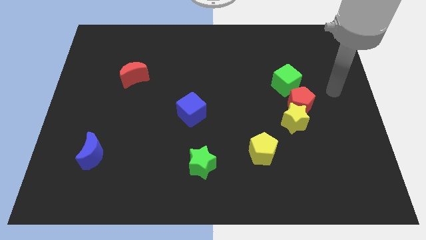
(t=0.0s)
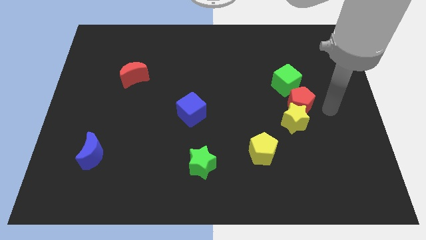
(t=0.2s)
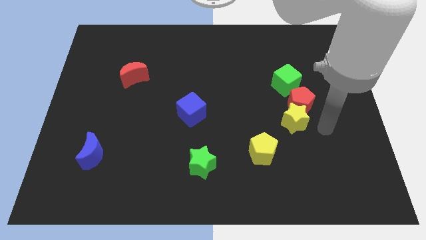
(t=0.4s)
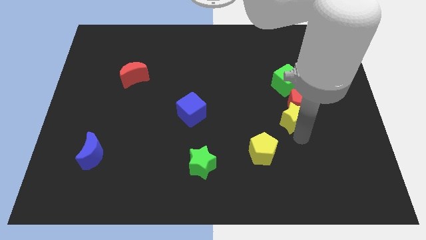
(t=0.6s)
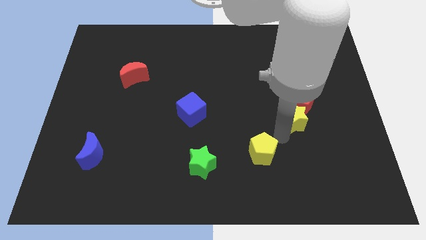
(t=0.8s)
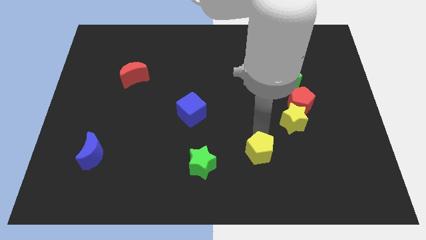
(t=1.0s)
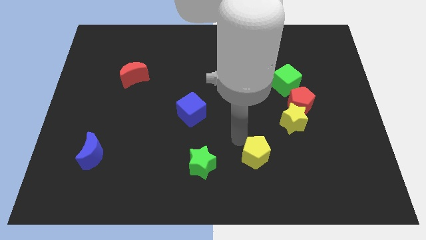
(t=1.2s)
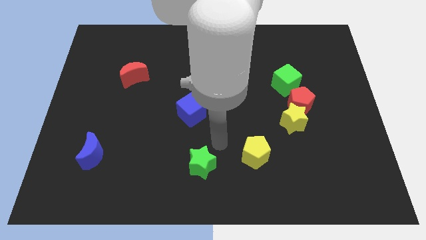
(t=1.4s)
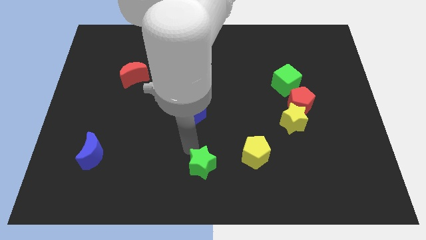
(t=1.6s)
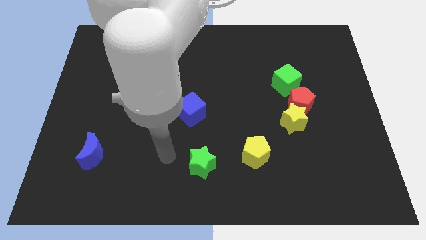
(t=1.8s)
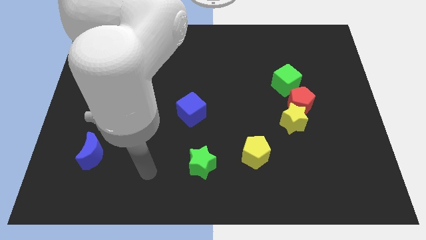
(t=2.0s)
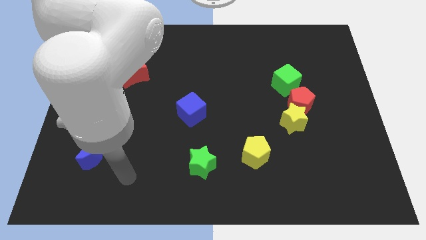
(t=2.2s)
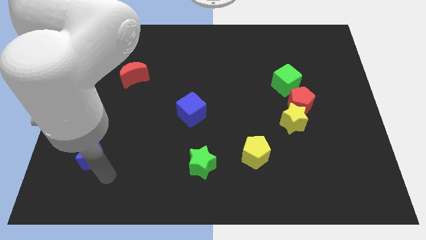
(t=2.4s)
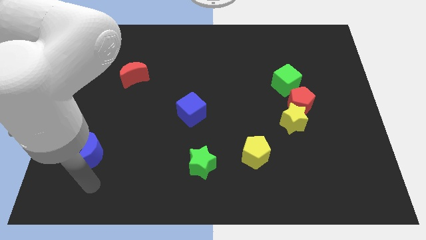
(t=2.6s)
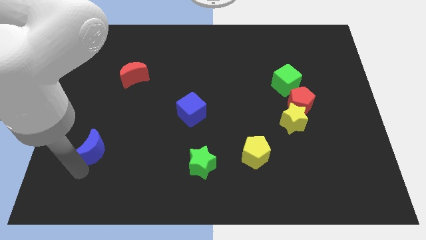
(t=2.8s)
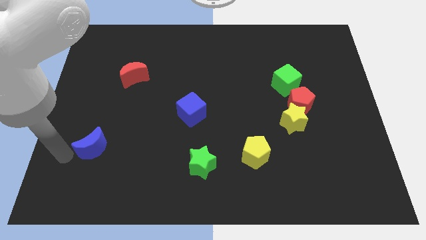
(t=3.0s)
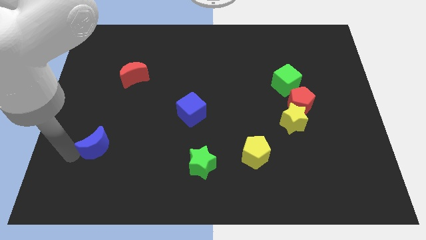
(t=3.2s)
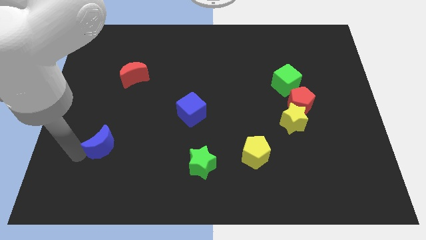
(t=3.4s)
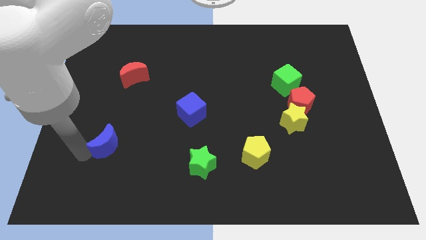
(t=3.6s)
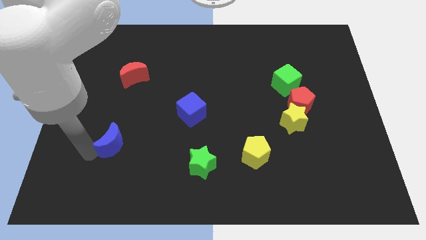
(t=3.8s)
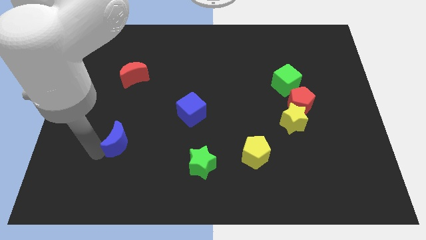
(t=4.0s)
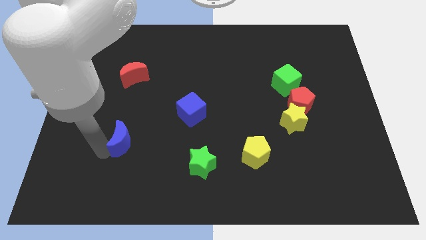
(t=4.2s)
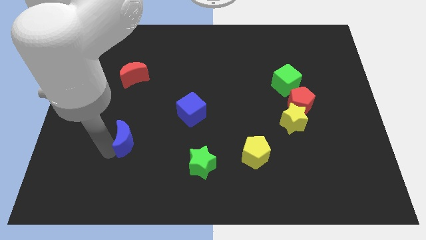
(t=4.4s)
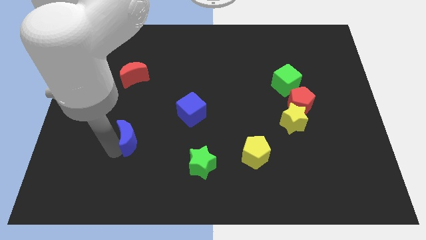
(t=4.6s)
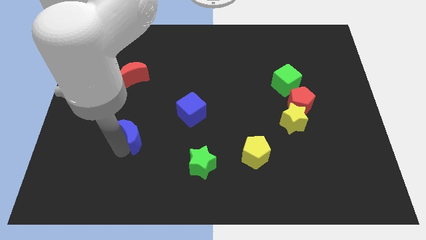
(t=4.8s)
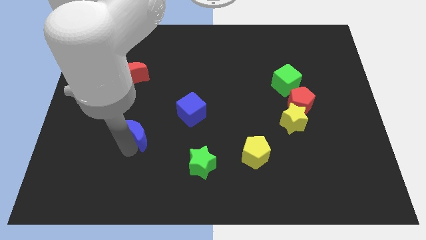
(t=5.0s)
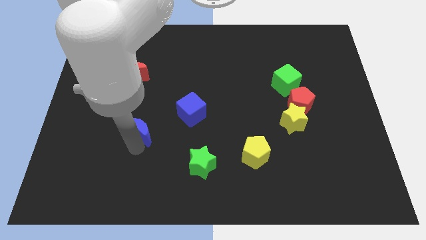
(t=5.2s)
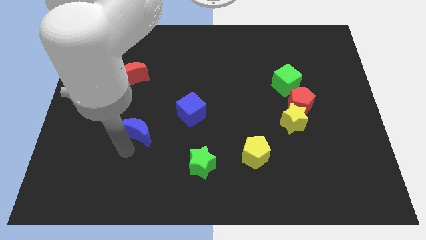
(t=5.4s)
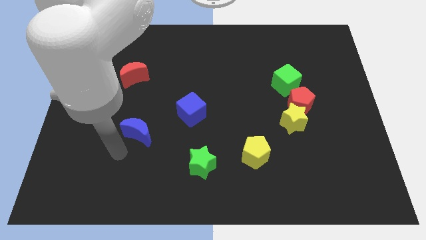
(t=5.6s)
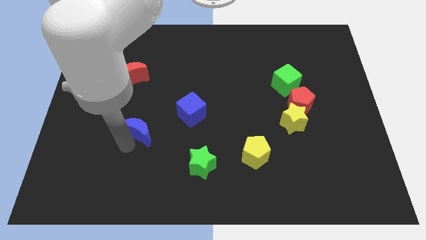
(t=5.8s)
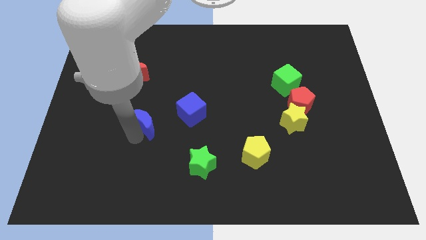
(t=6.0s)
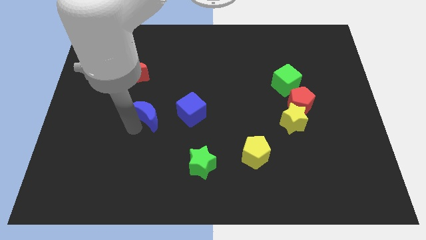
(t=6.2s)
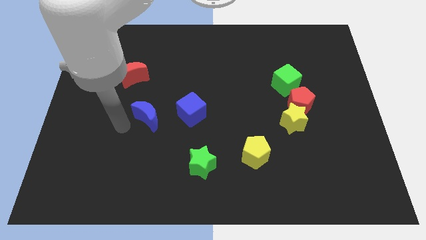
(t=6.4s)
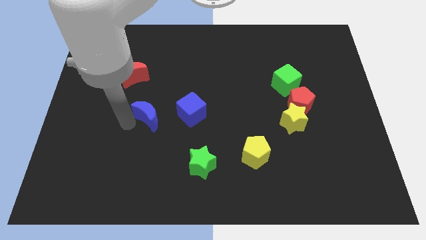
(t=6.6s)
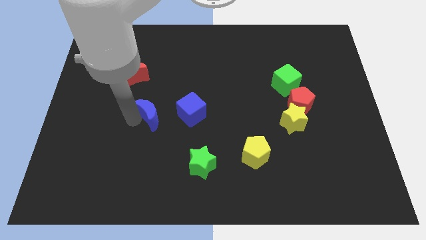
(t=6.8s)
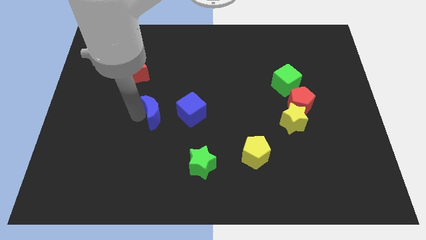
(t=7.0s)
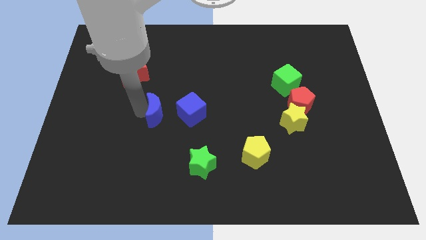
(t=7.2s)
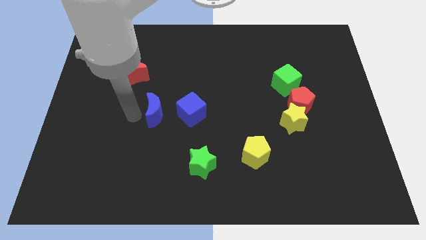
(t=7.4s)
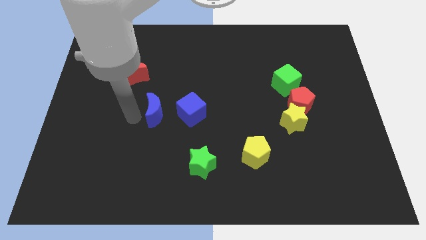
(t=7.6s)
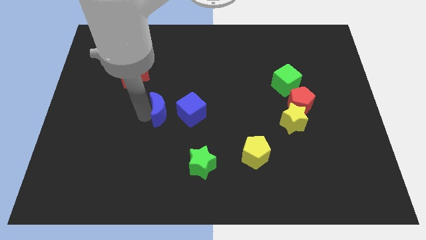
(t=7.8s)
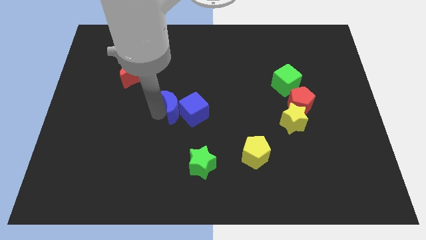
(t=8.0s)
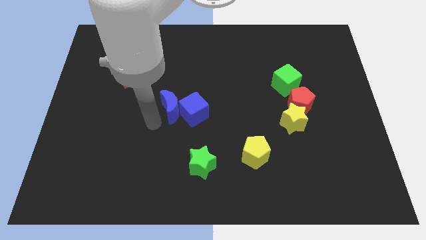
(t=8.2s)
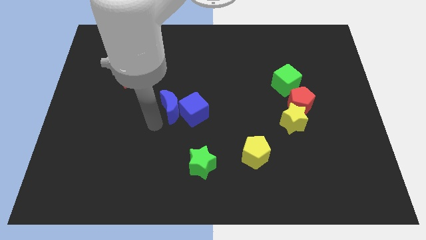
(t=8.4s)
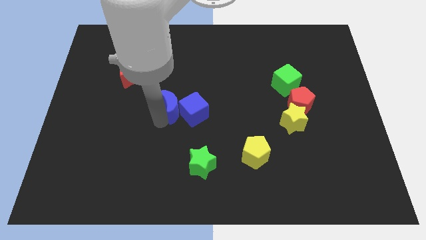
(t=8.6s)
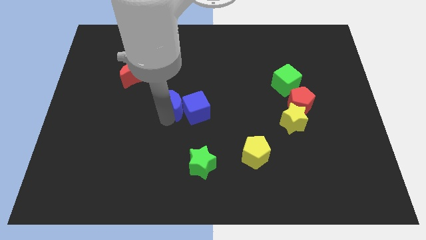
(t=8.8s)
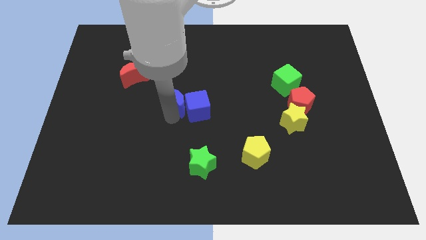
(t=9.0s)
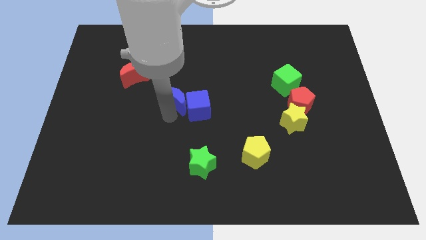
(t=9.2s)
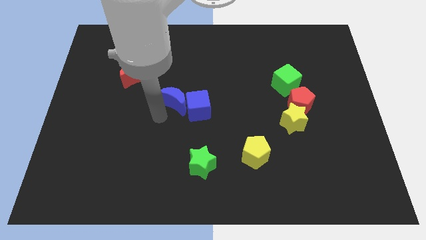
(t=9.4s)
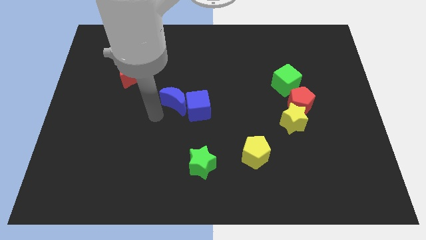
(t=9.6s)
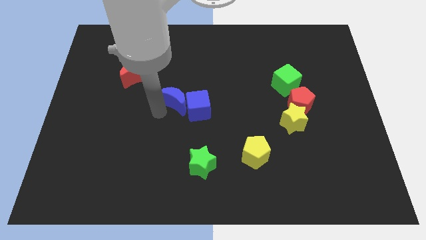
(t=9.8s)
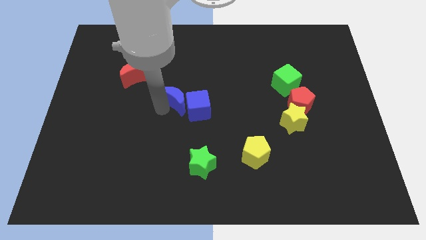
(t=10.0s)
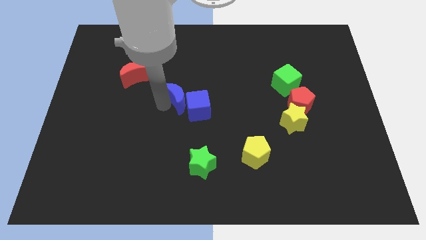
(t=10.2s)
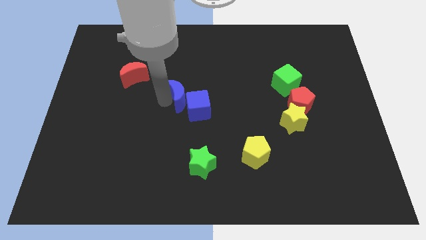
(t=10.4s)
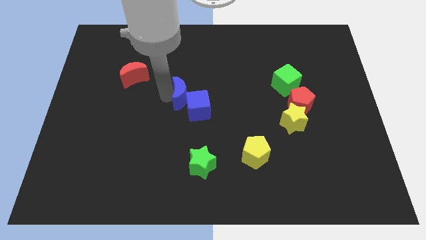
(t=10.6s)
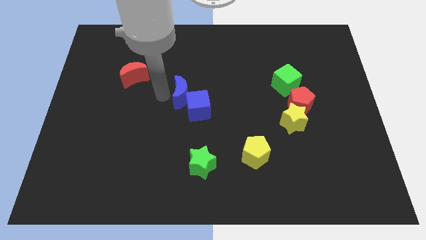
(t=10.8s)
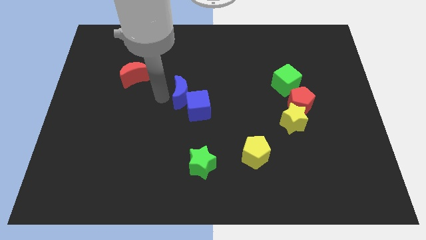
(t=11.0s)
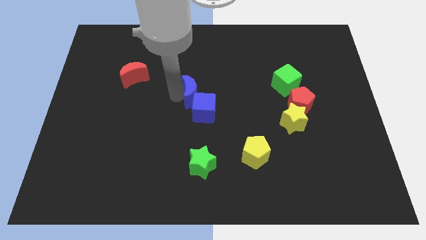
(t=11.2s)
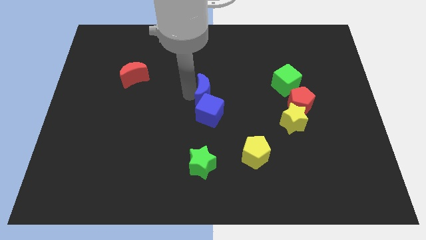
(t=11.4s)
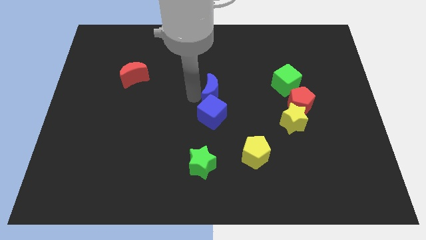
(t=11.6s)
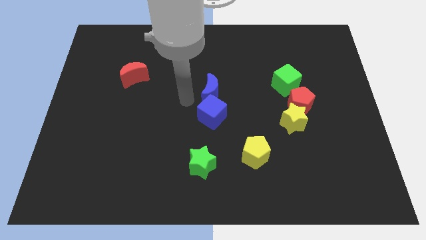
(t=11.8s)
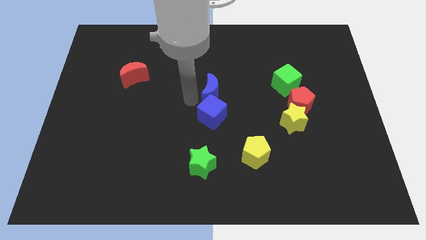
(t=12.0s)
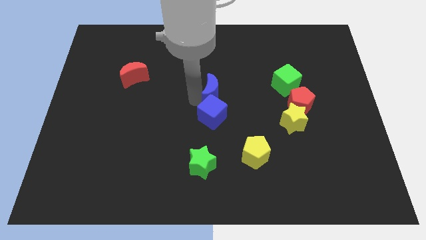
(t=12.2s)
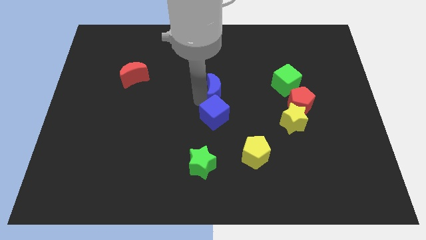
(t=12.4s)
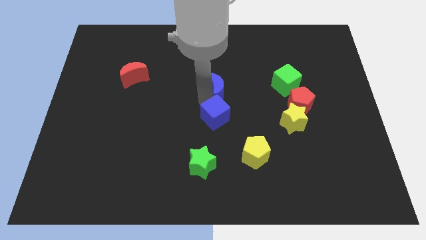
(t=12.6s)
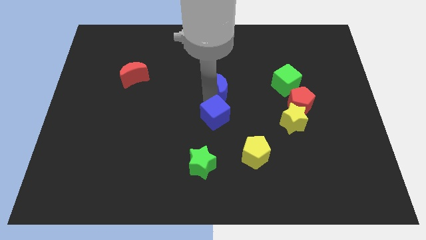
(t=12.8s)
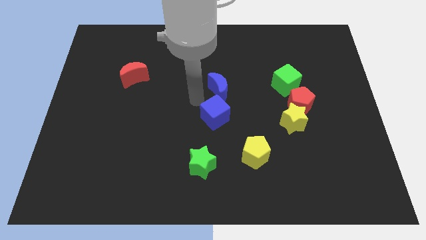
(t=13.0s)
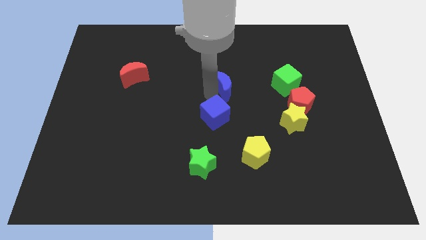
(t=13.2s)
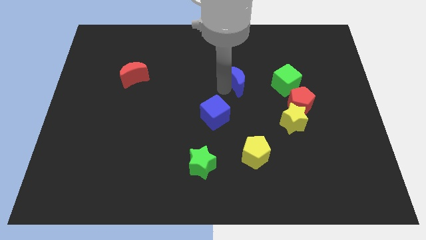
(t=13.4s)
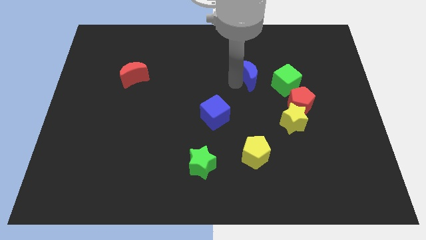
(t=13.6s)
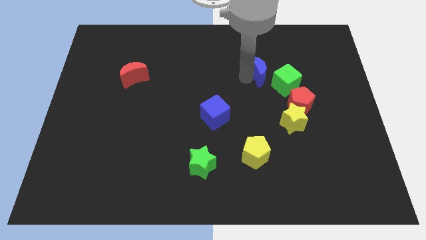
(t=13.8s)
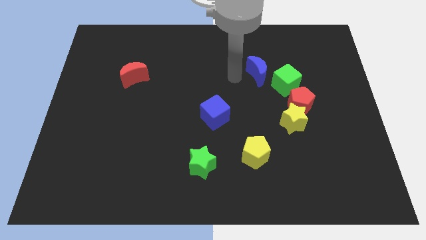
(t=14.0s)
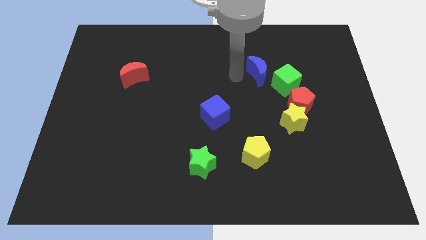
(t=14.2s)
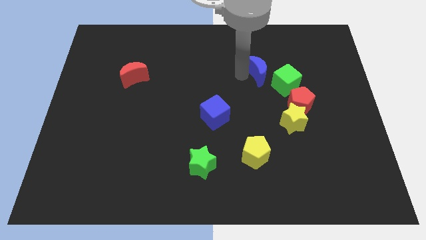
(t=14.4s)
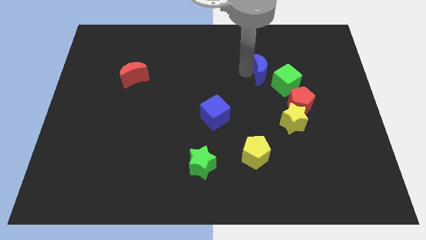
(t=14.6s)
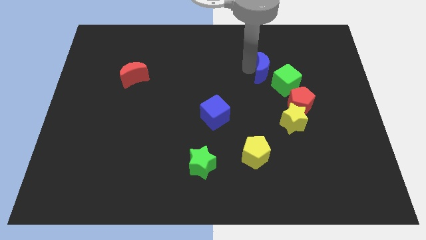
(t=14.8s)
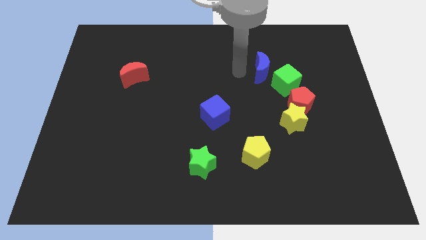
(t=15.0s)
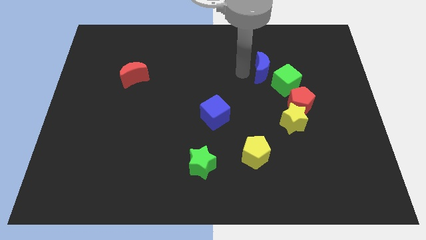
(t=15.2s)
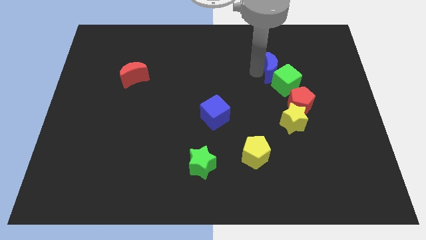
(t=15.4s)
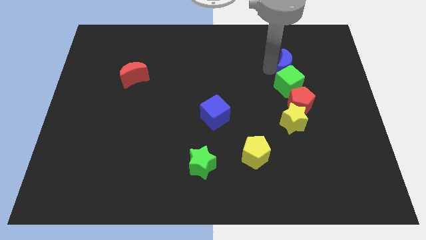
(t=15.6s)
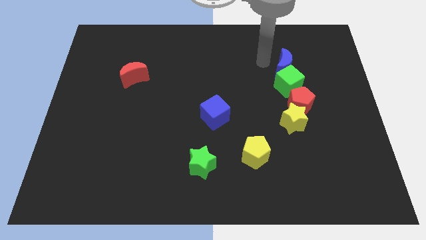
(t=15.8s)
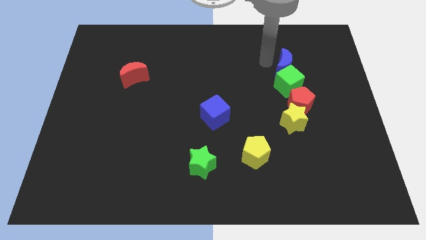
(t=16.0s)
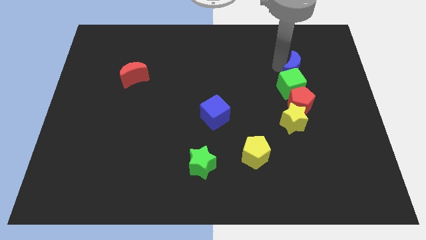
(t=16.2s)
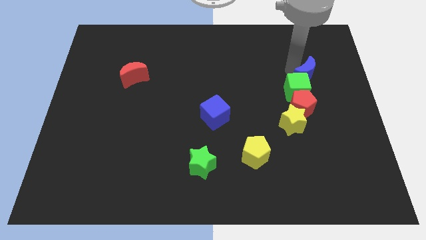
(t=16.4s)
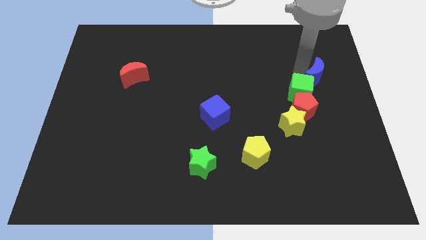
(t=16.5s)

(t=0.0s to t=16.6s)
push the blue moon to the right side of the green cube
